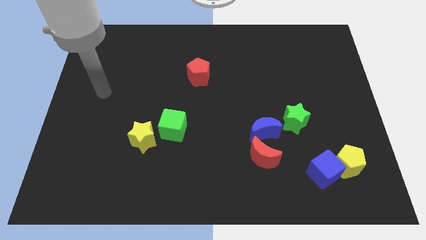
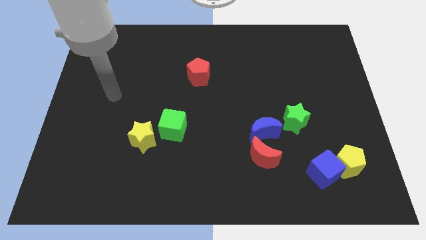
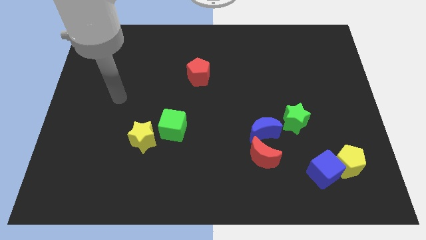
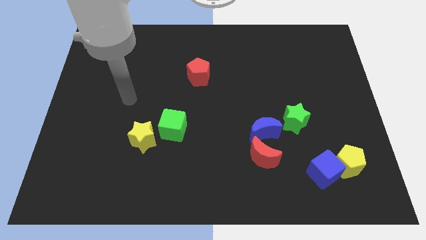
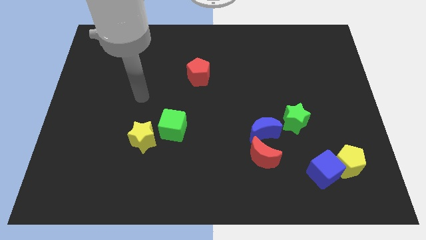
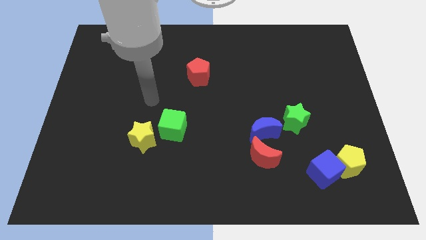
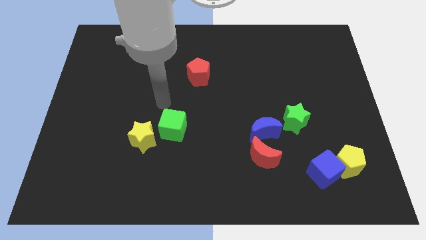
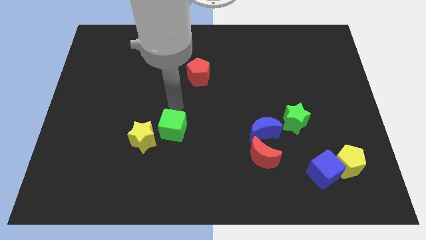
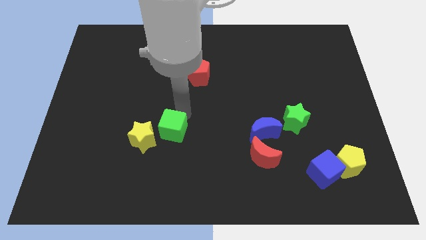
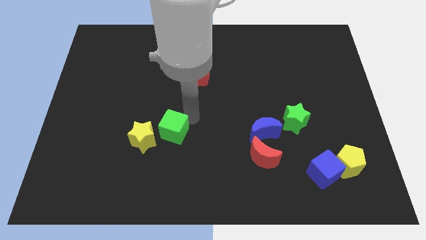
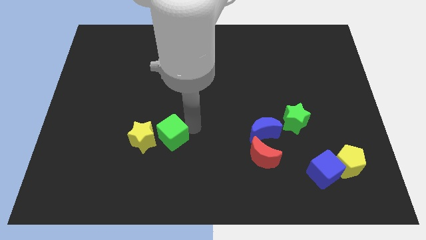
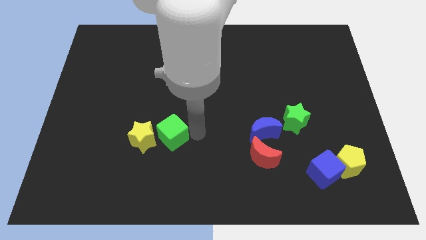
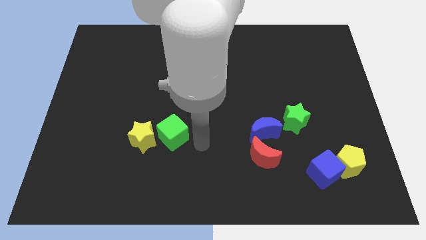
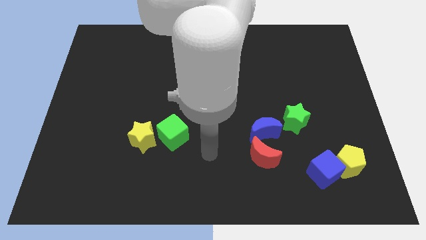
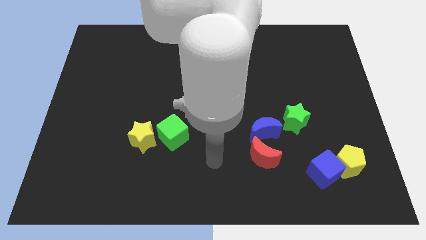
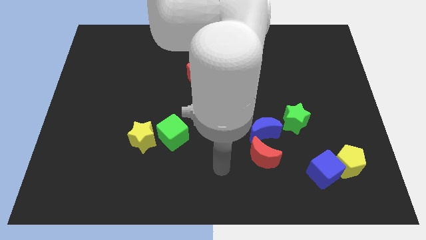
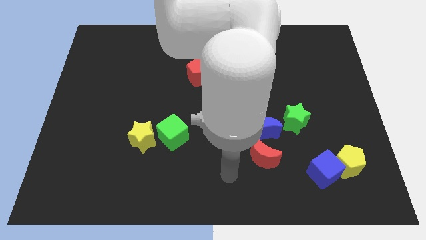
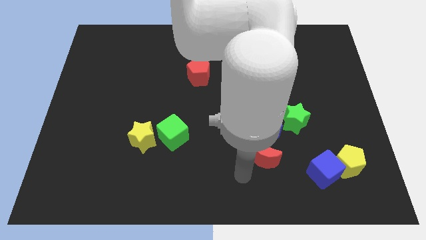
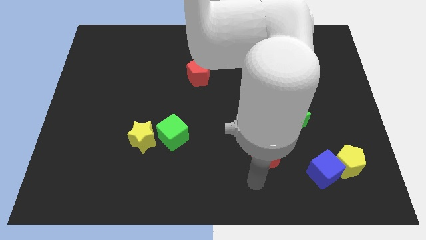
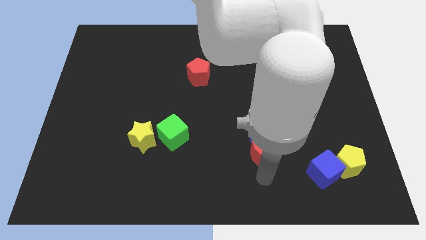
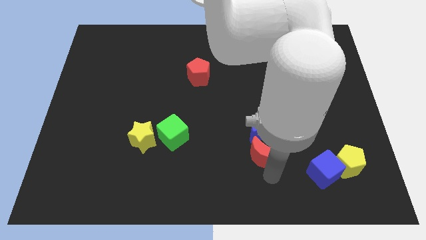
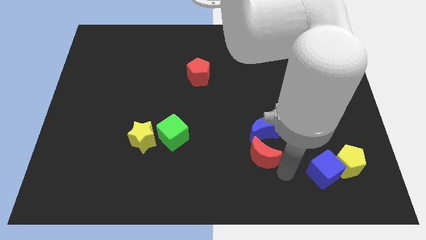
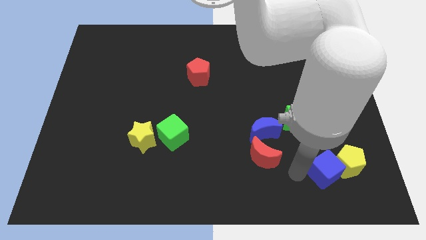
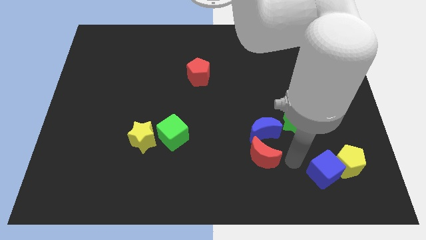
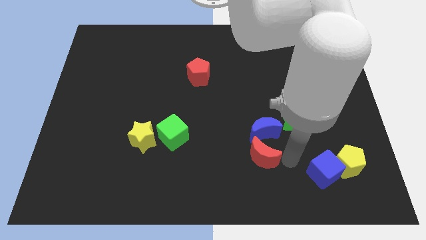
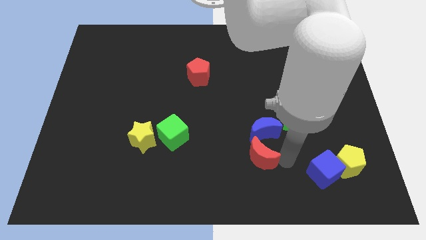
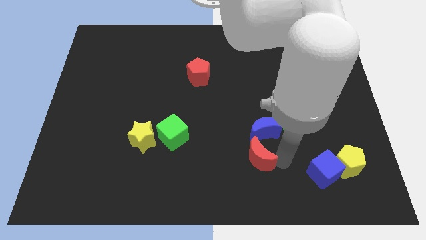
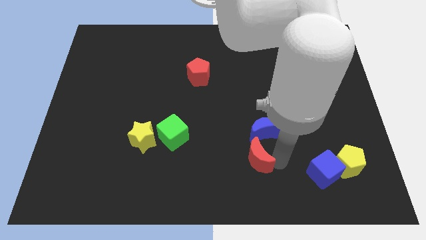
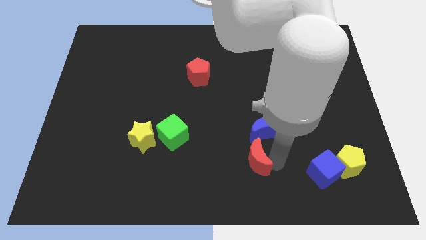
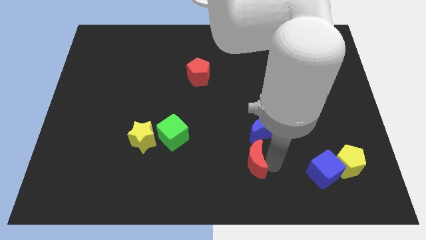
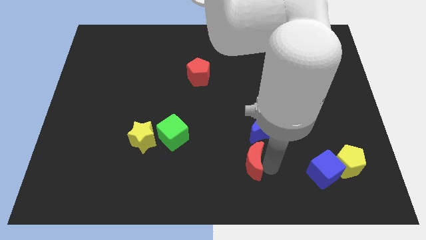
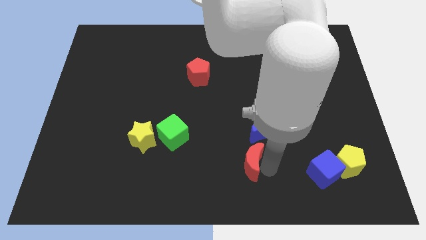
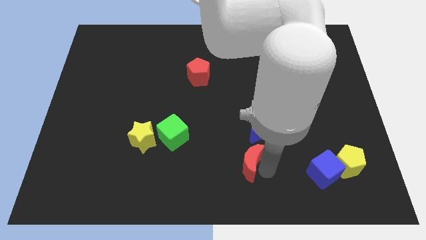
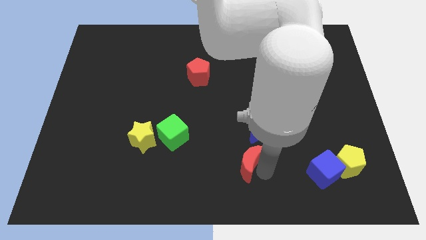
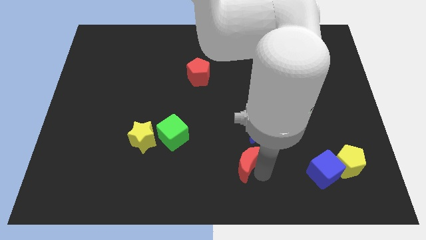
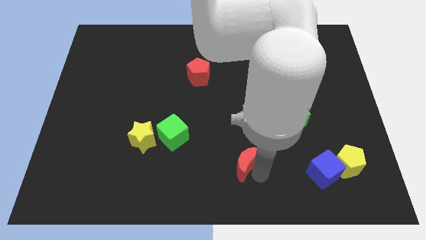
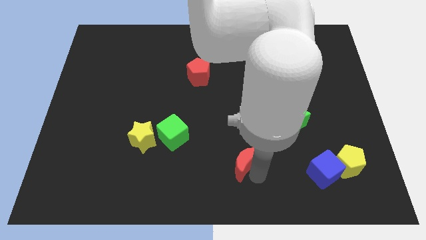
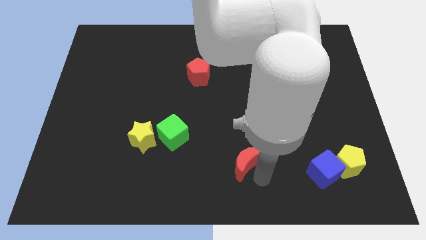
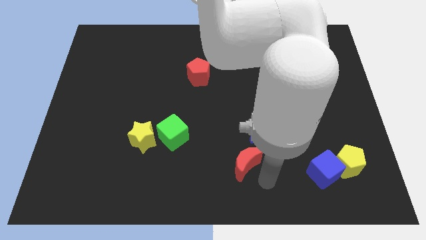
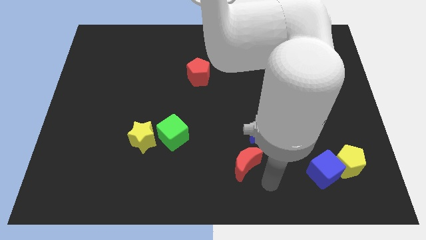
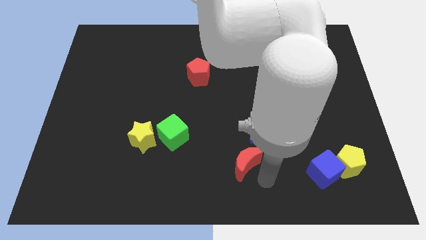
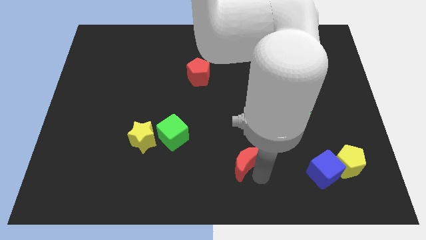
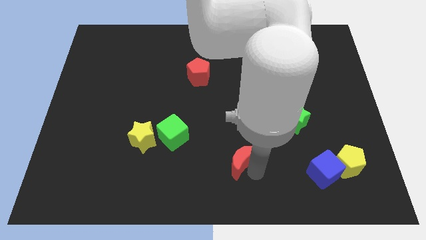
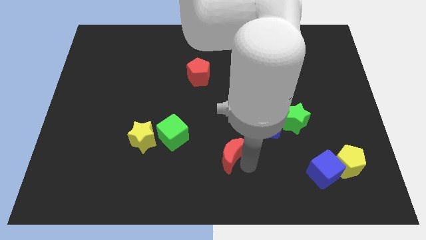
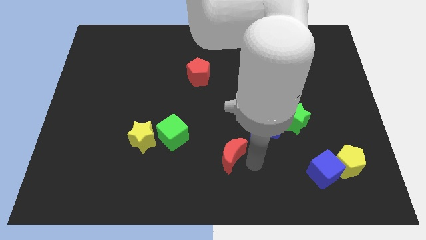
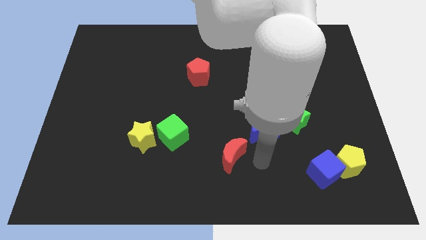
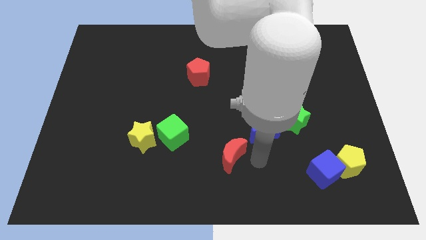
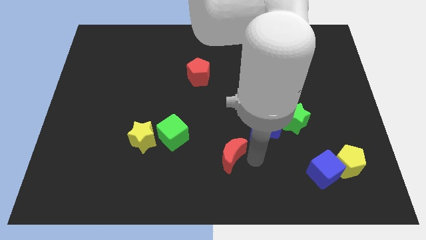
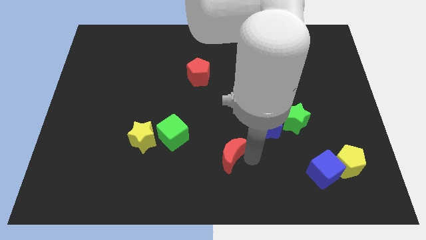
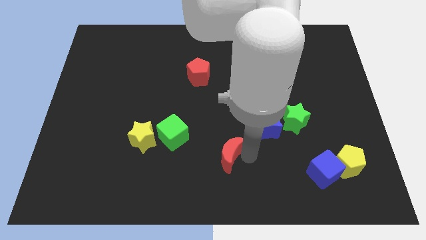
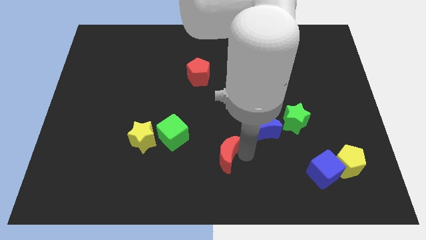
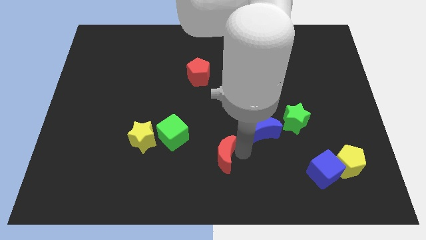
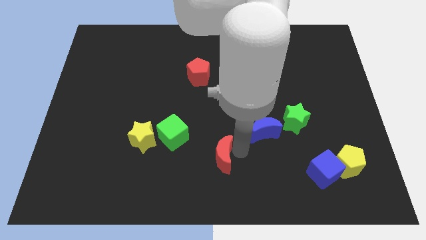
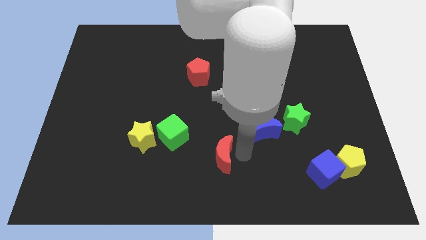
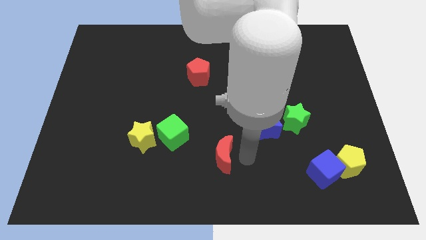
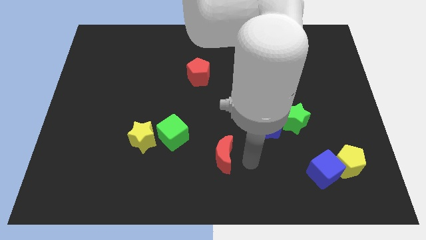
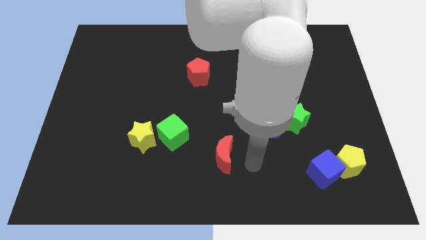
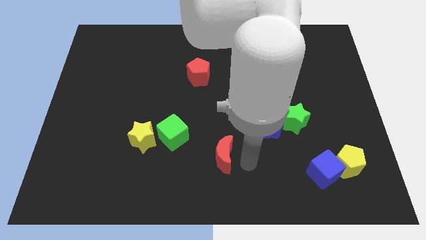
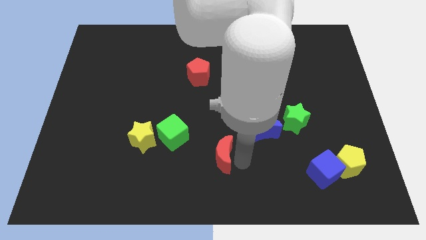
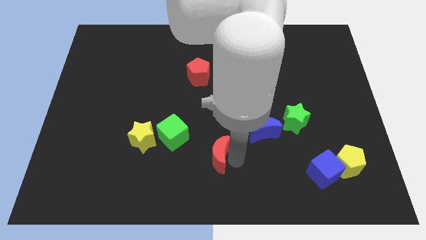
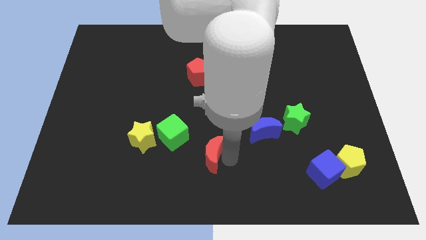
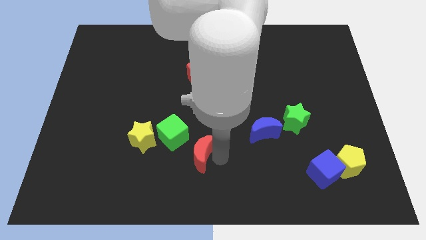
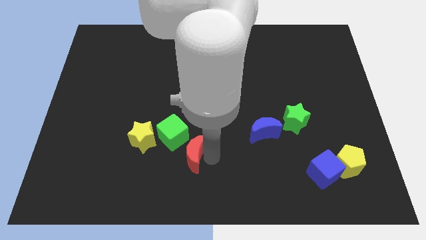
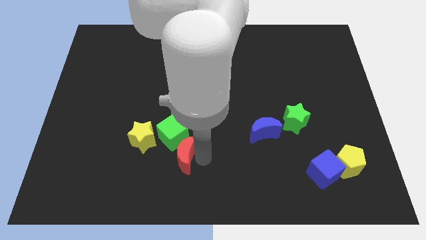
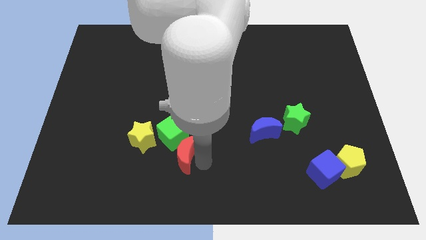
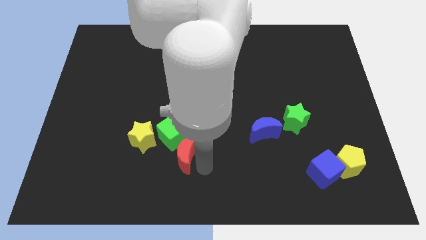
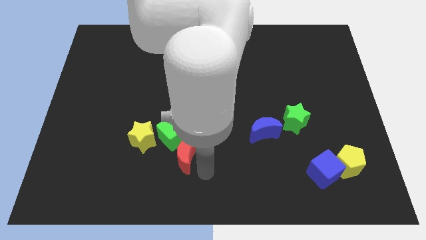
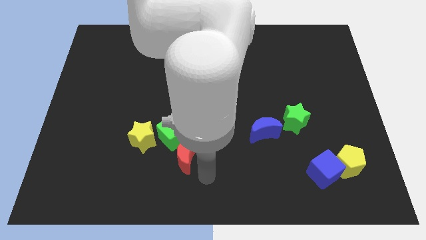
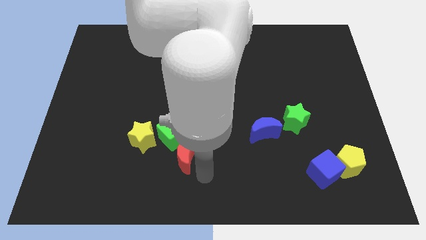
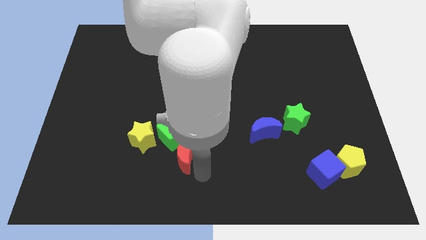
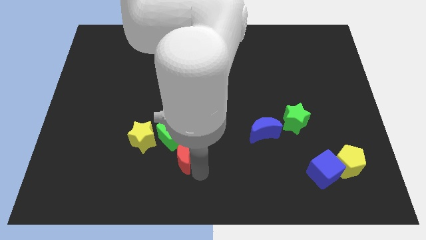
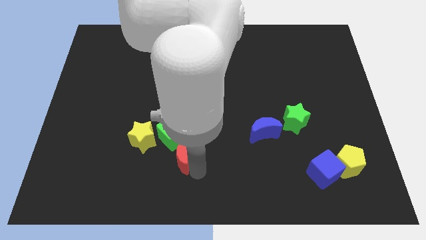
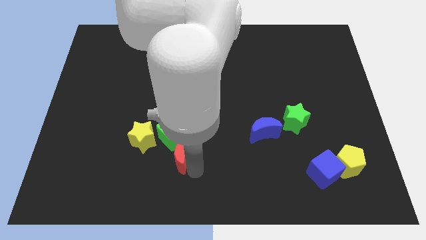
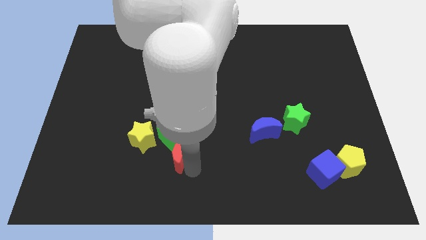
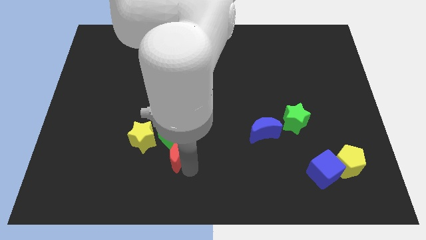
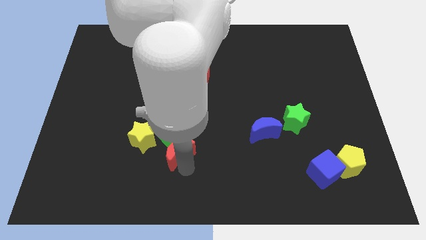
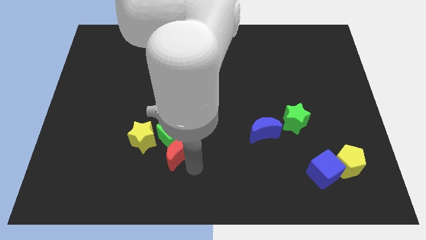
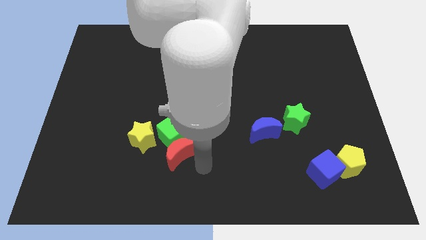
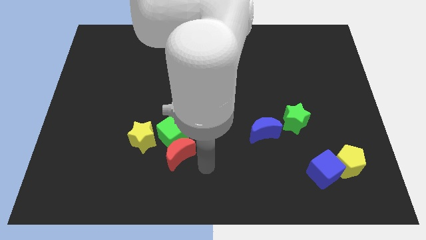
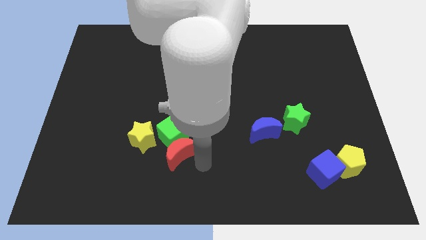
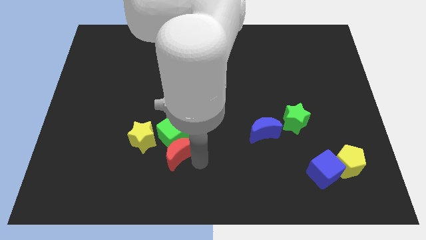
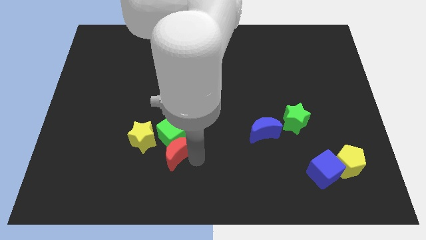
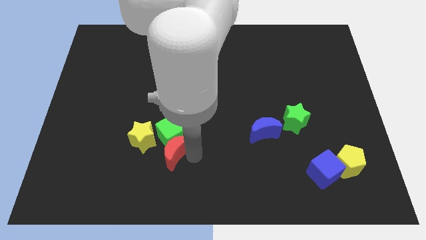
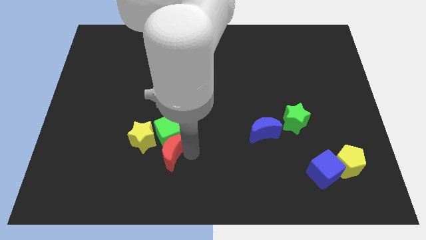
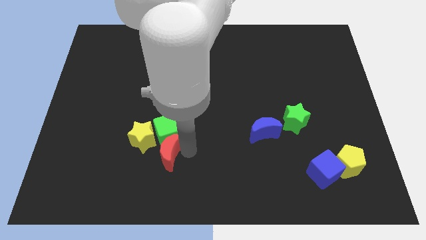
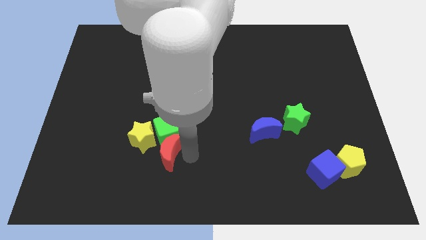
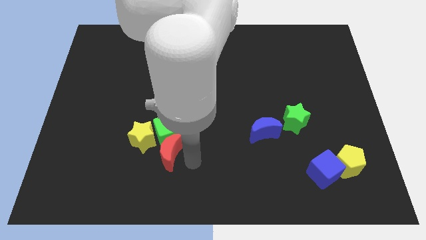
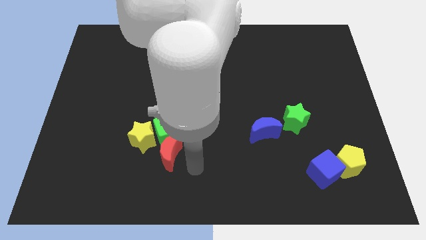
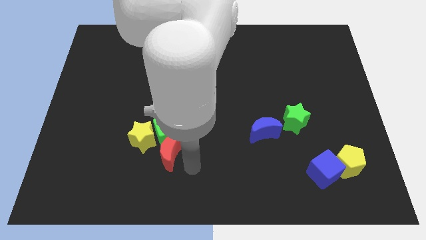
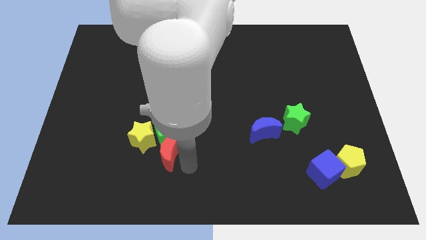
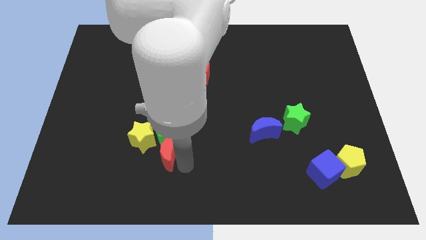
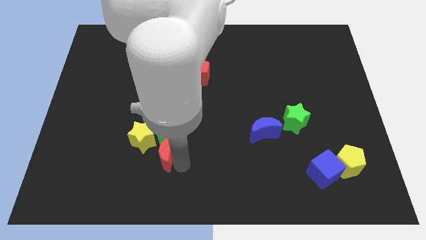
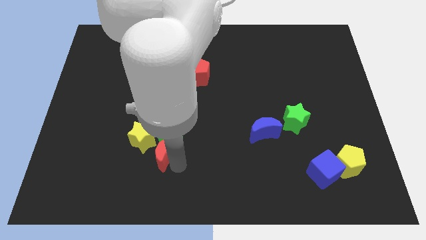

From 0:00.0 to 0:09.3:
move the red moon close to the yellow star
